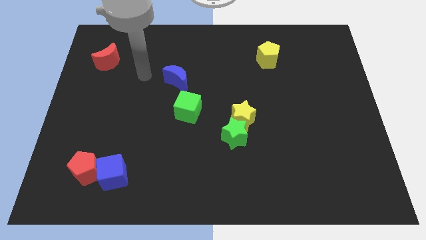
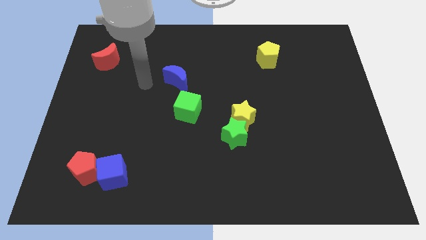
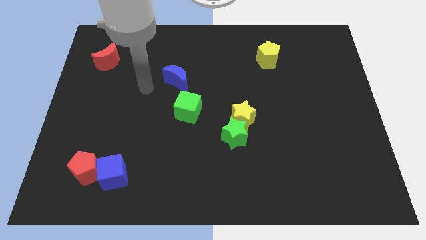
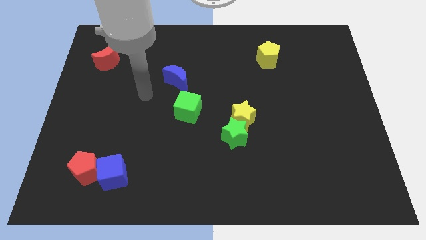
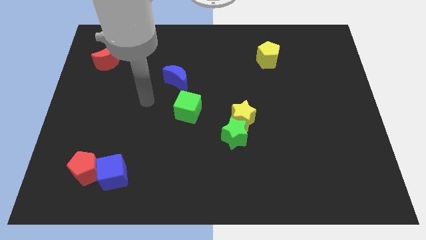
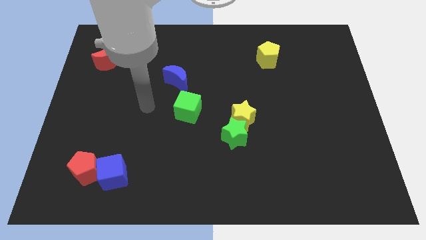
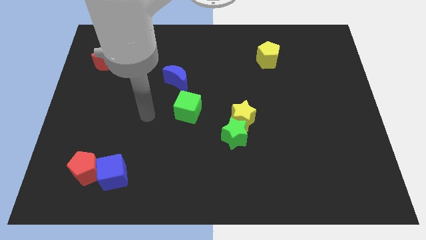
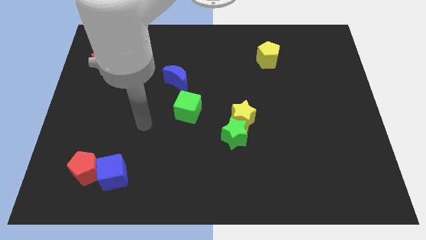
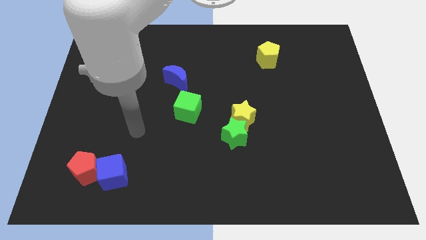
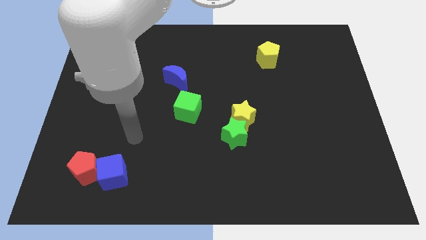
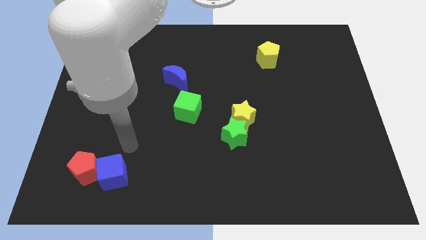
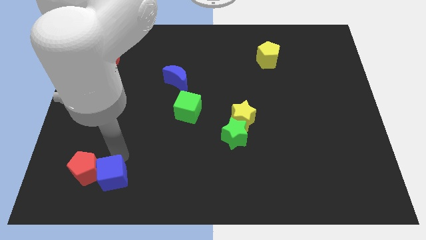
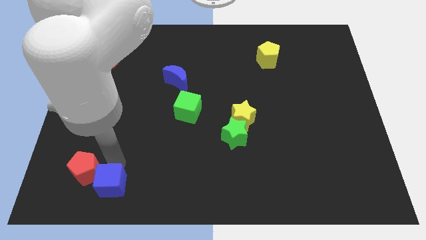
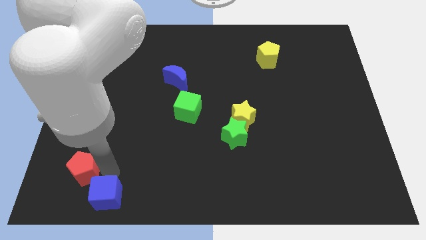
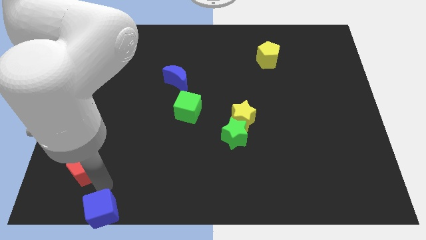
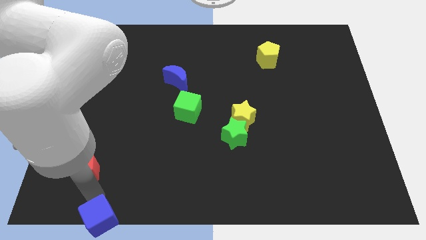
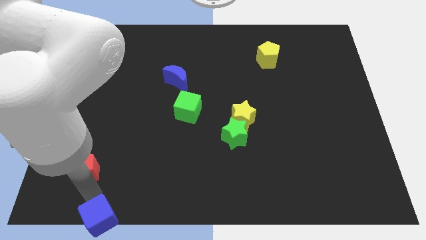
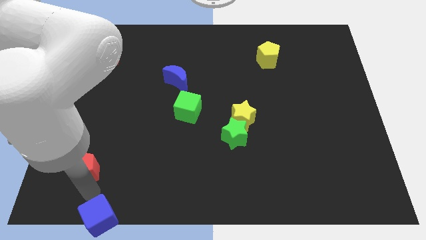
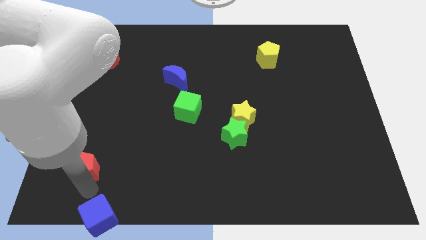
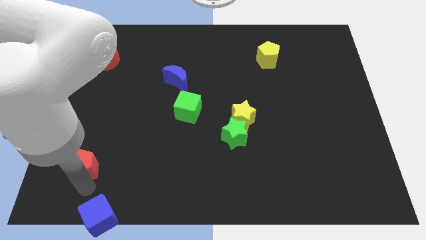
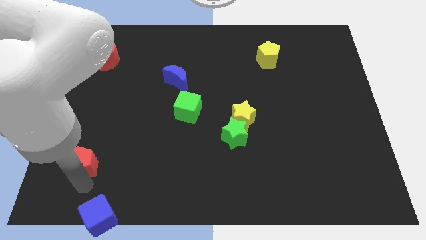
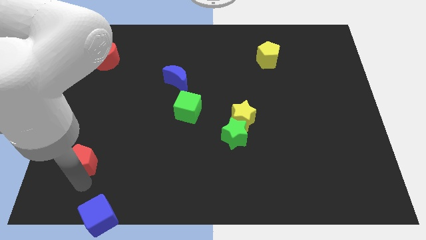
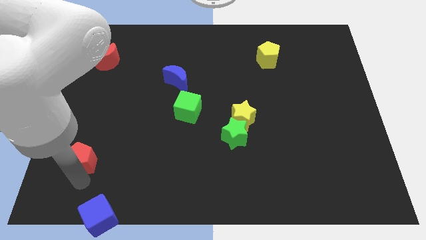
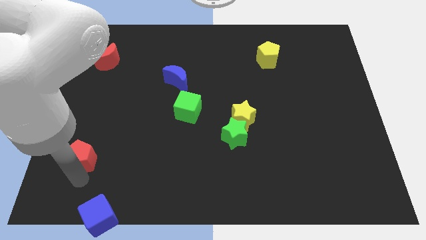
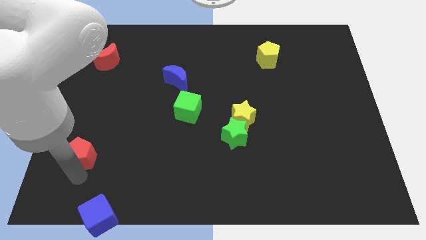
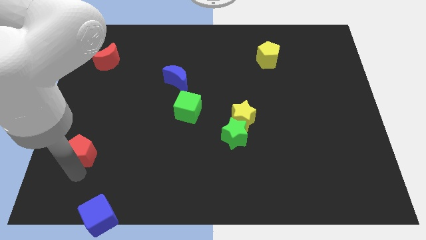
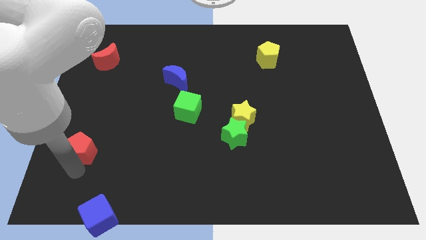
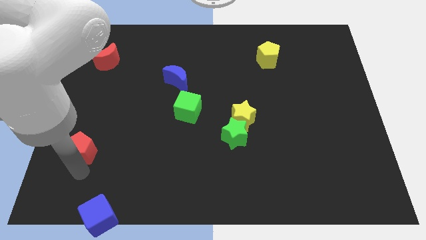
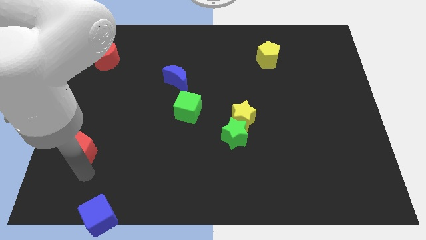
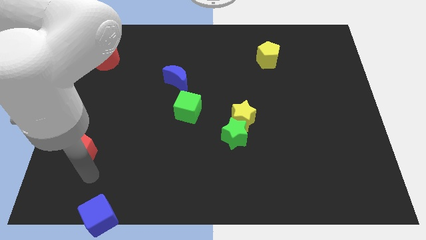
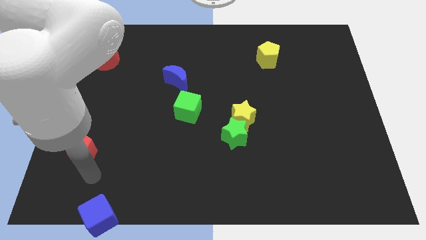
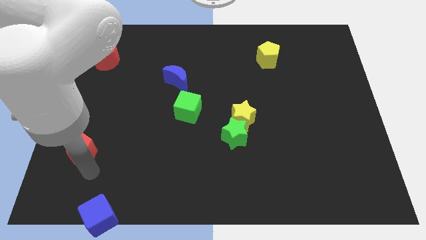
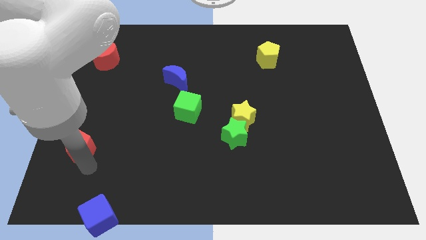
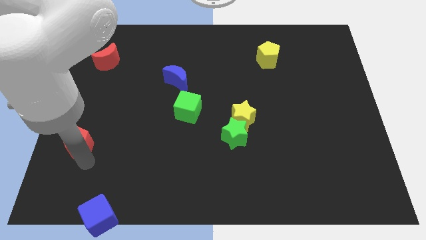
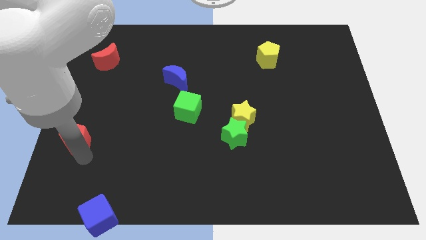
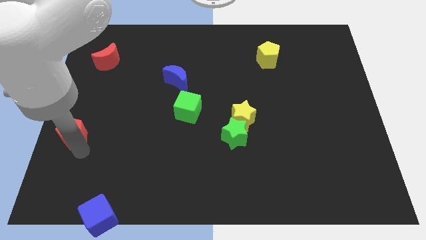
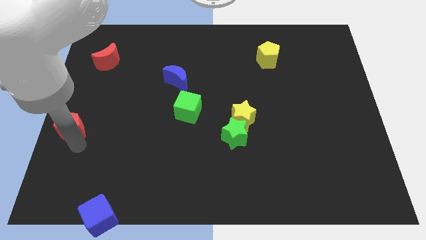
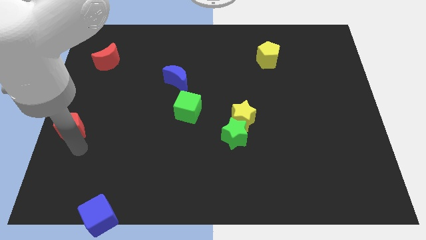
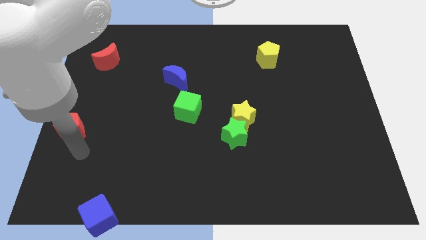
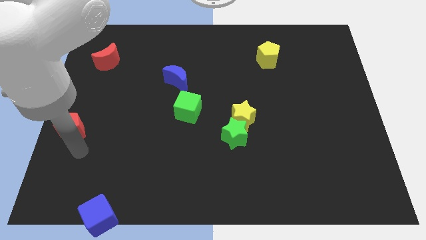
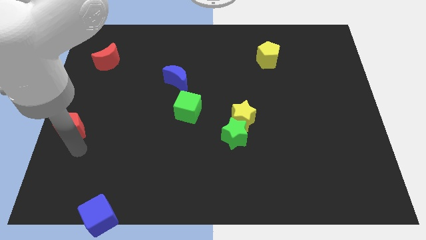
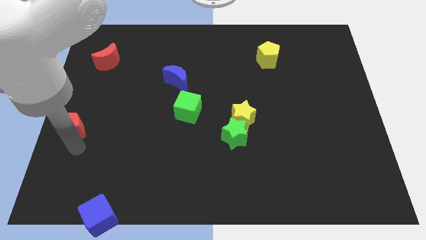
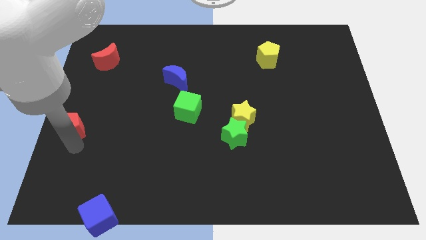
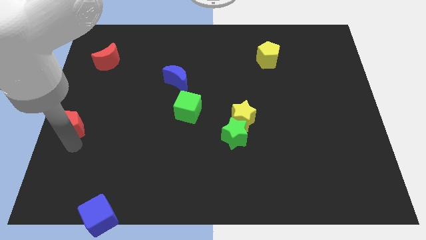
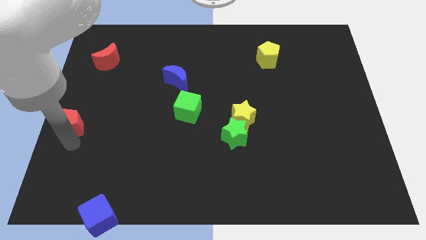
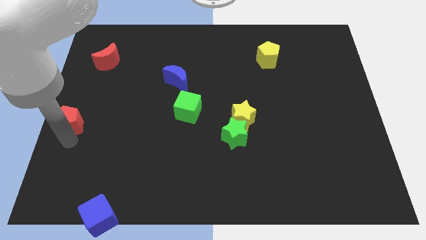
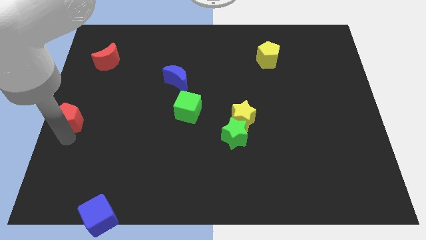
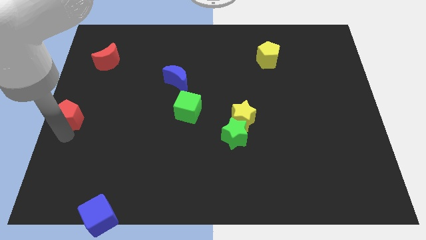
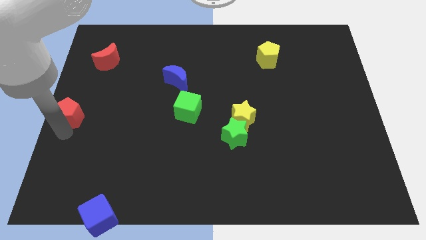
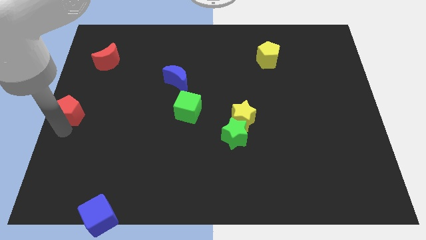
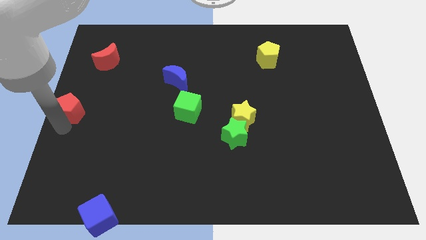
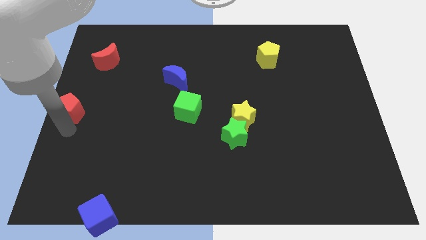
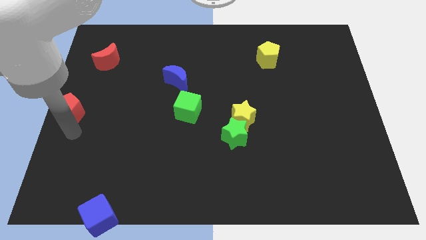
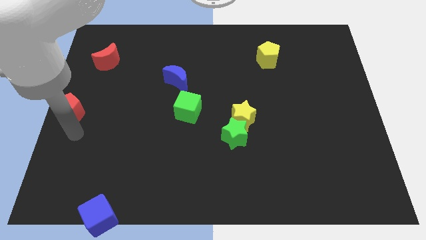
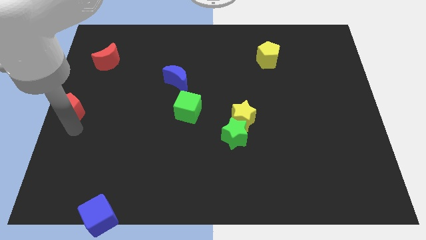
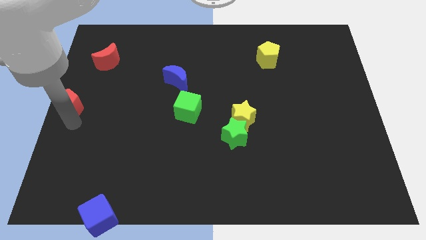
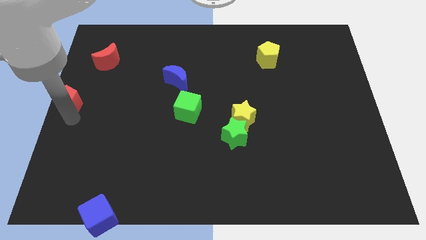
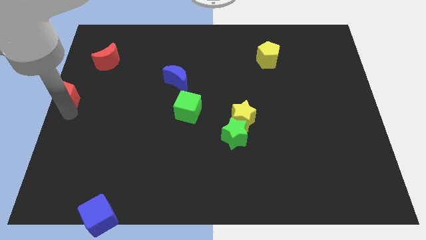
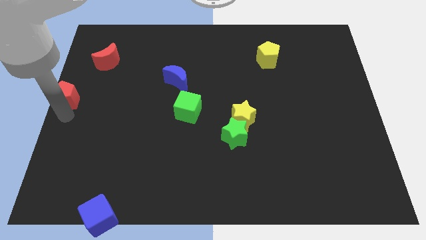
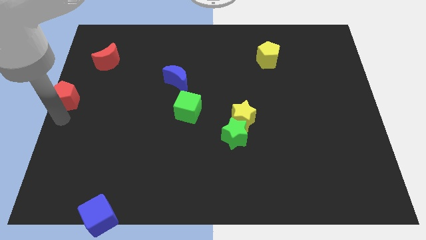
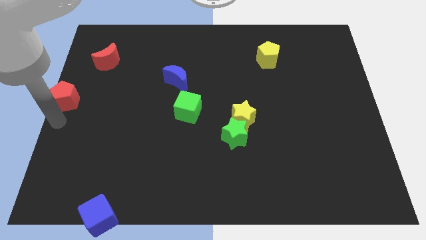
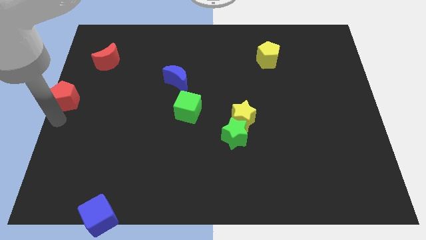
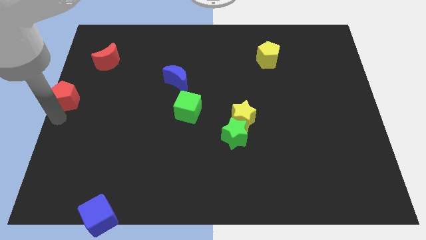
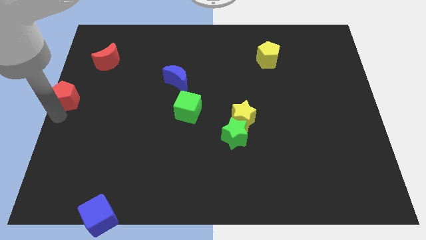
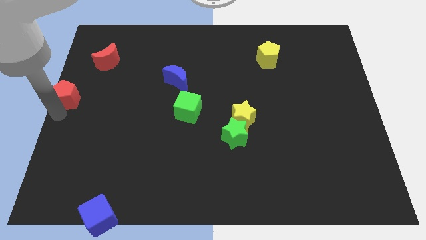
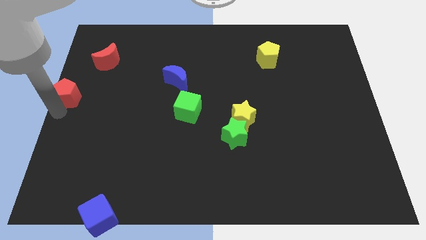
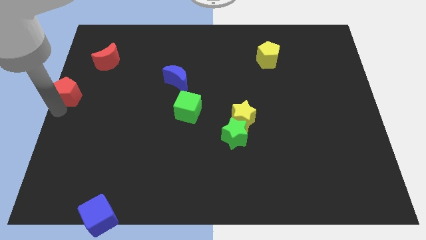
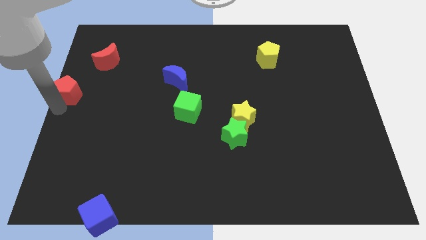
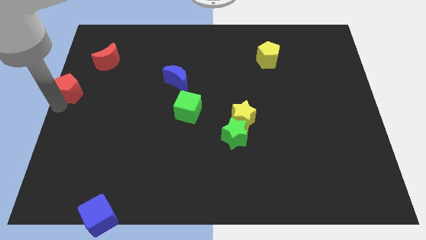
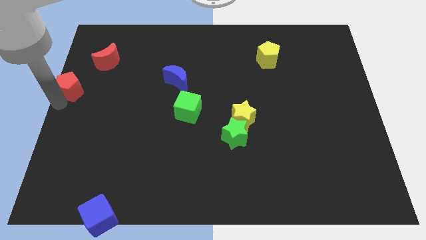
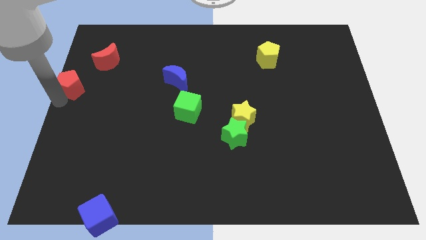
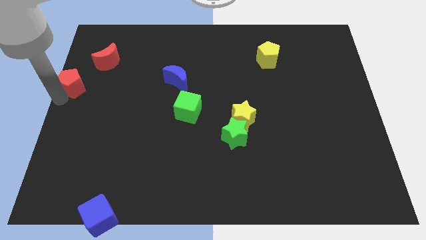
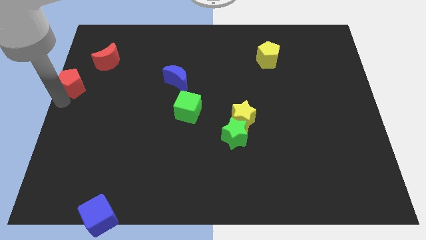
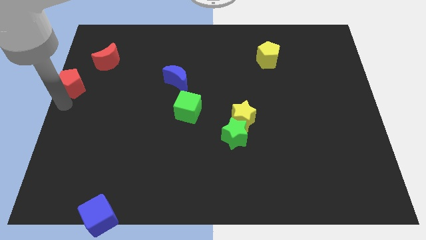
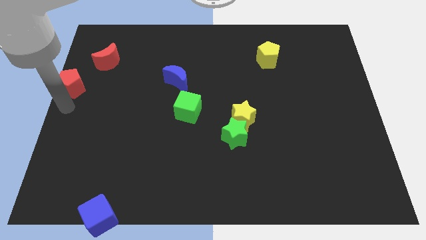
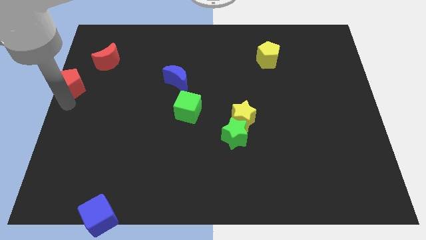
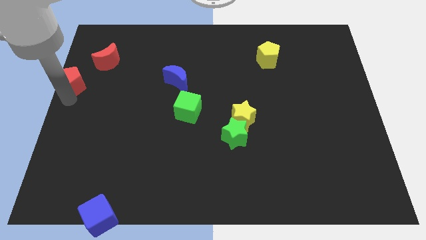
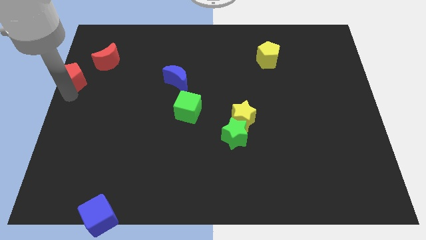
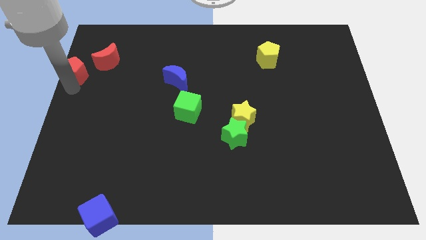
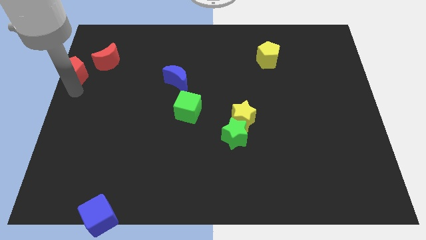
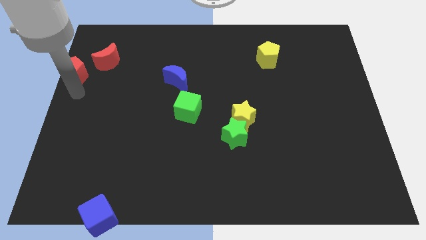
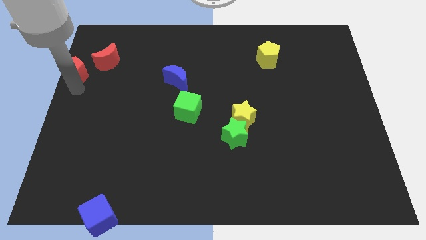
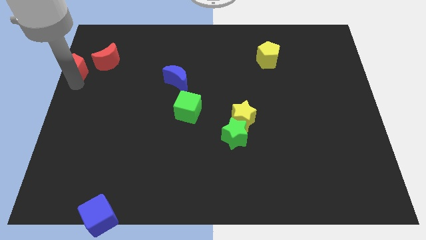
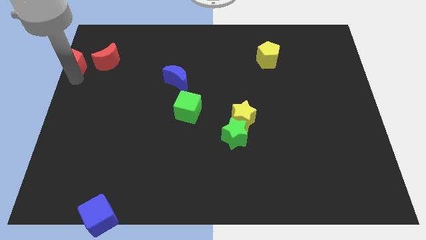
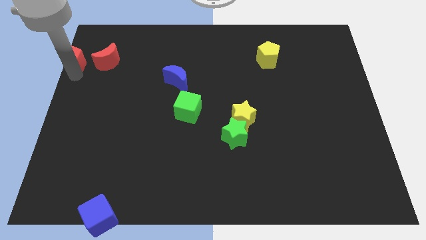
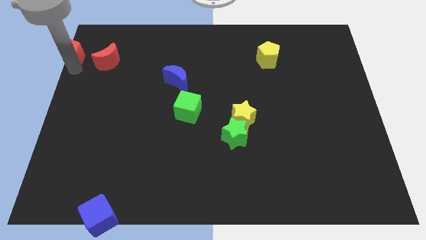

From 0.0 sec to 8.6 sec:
slide the red pentagon to the upper left corner
